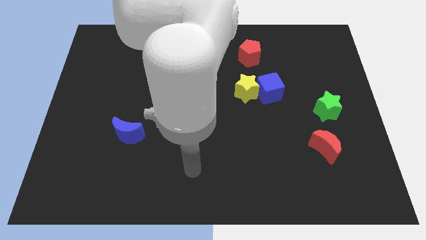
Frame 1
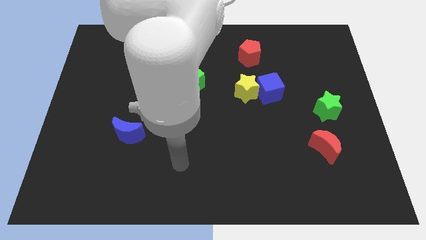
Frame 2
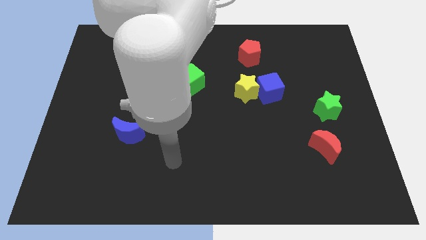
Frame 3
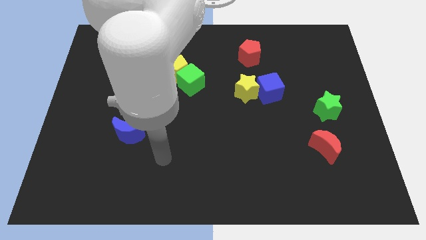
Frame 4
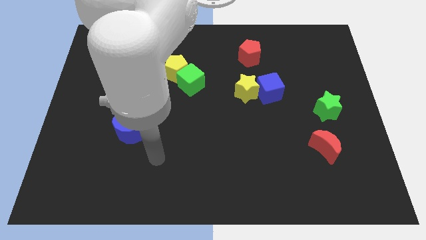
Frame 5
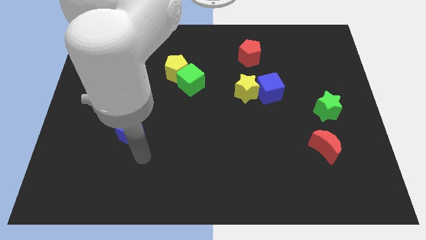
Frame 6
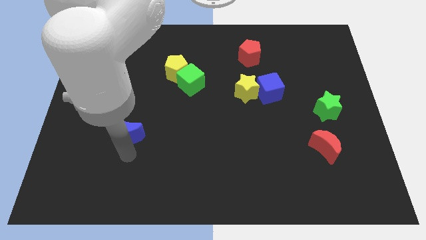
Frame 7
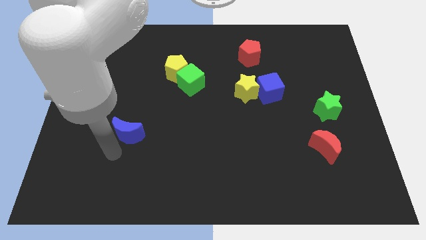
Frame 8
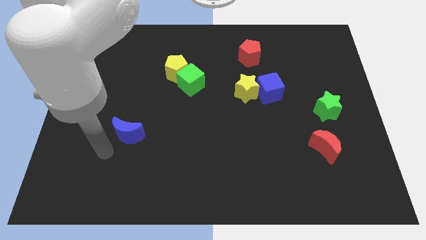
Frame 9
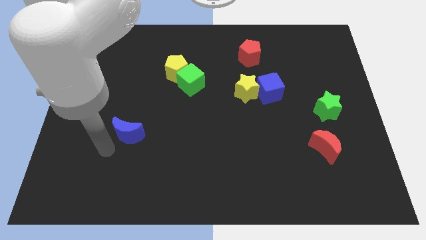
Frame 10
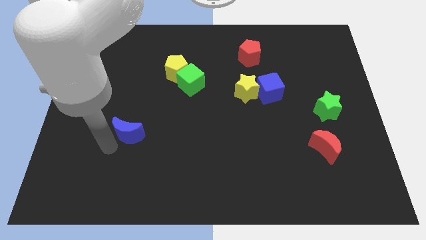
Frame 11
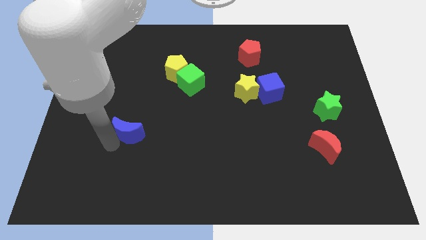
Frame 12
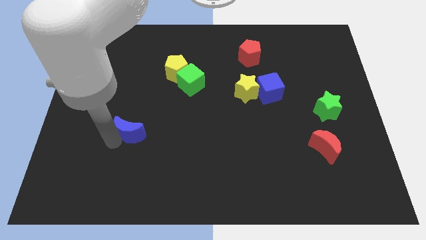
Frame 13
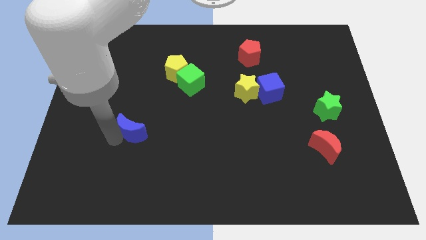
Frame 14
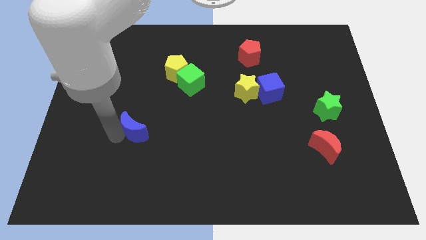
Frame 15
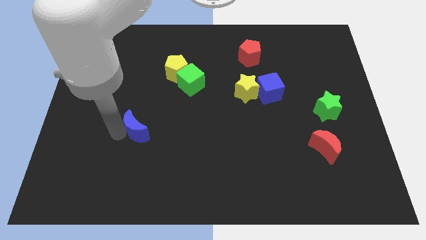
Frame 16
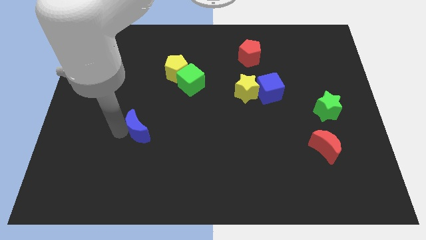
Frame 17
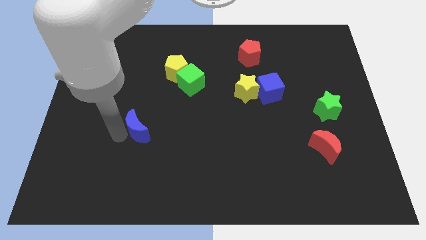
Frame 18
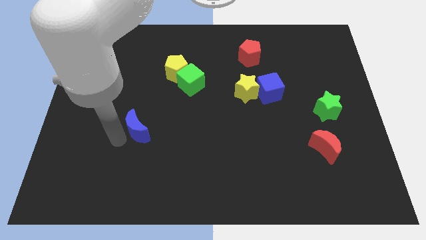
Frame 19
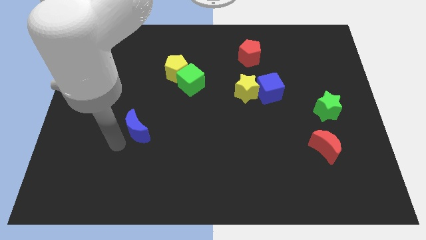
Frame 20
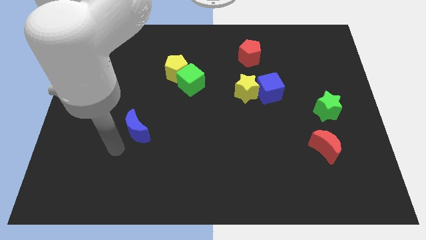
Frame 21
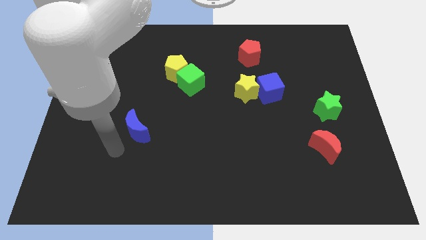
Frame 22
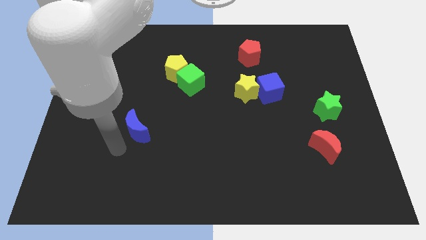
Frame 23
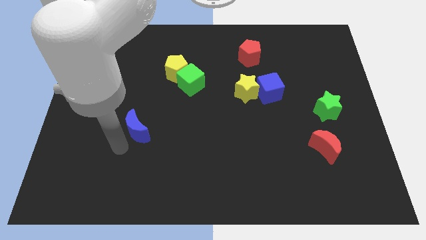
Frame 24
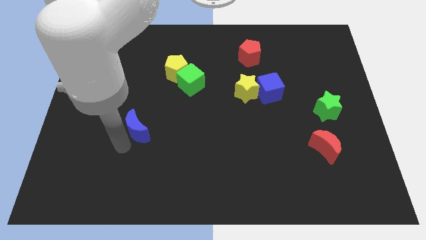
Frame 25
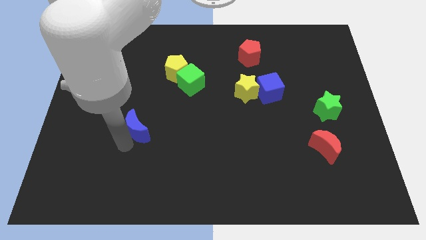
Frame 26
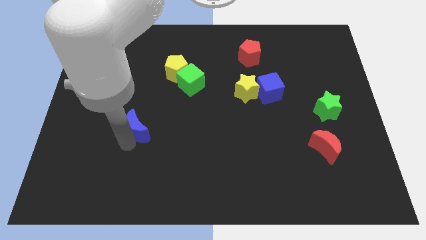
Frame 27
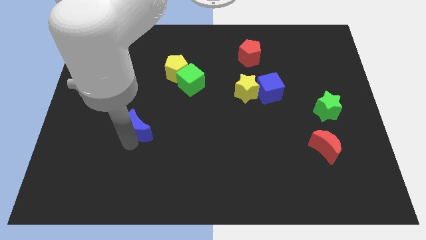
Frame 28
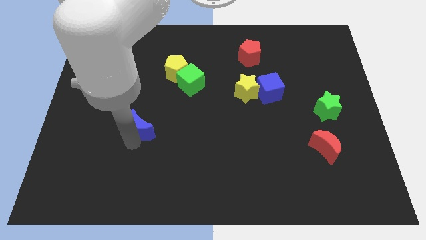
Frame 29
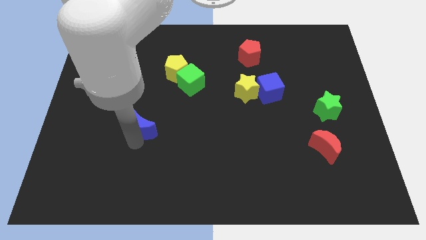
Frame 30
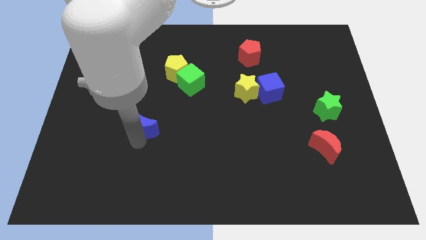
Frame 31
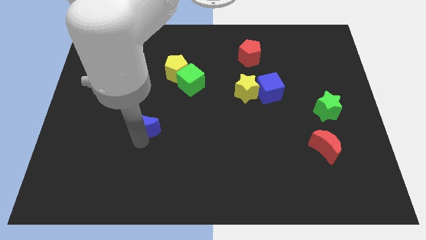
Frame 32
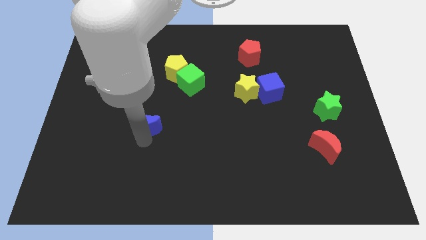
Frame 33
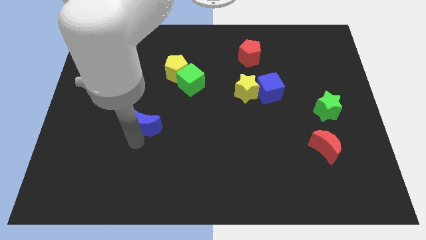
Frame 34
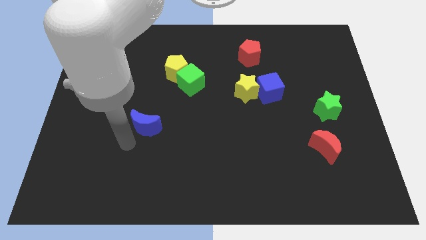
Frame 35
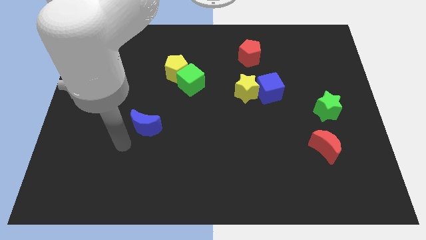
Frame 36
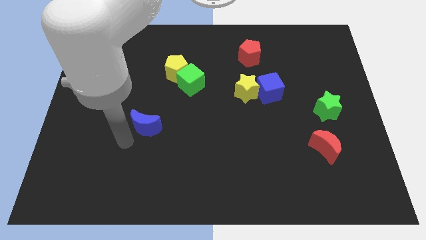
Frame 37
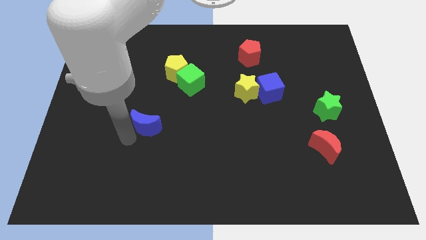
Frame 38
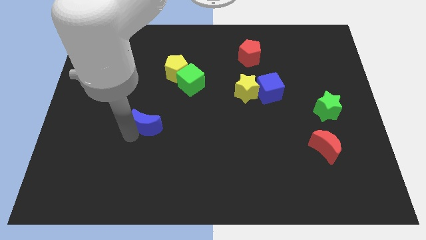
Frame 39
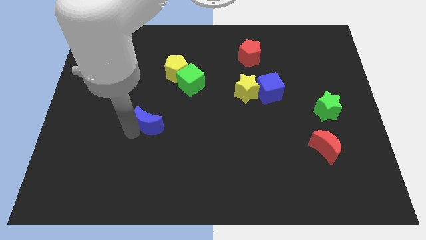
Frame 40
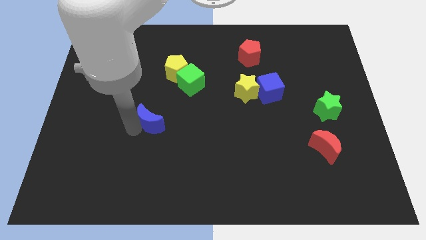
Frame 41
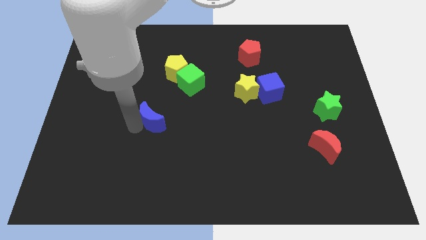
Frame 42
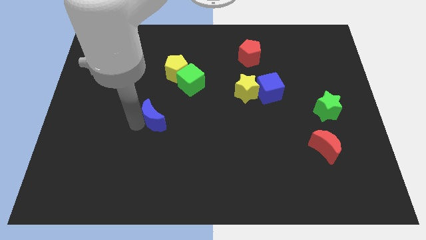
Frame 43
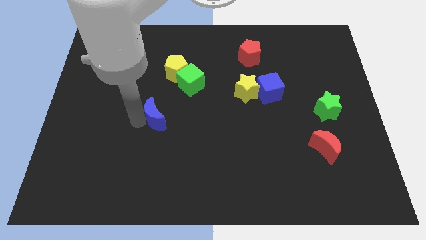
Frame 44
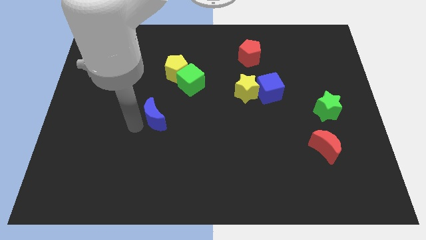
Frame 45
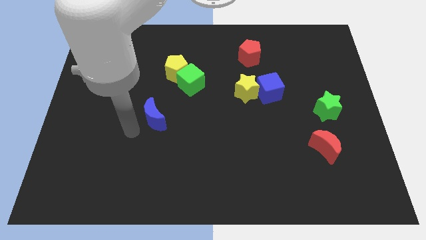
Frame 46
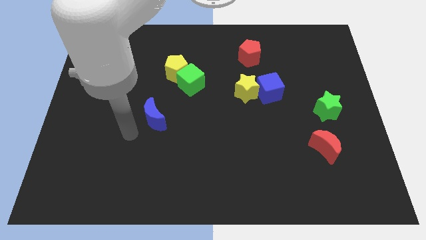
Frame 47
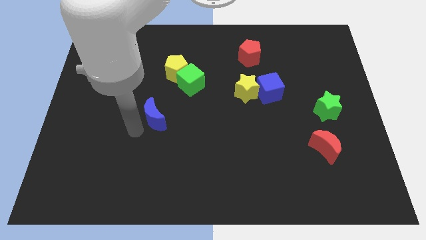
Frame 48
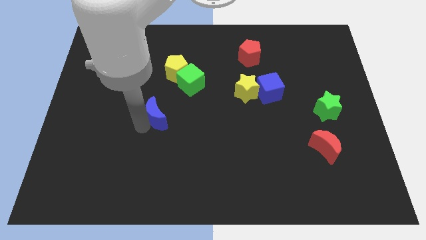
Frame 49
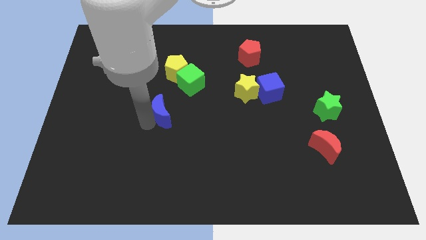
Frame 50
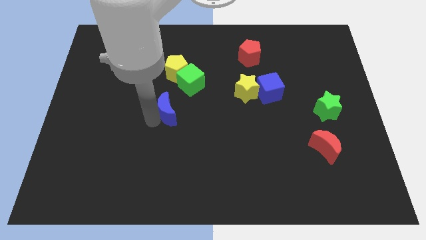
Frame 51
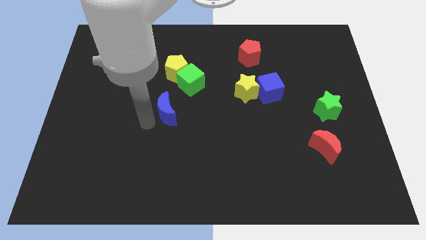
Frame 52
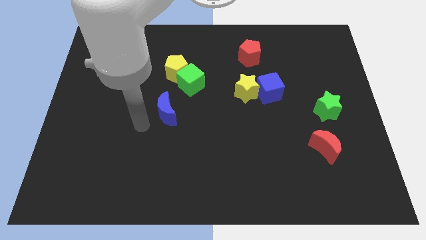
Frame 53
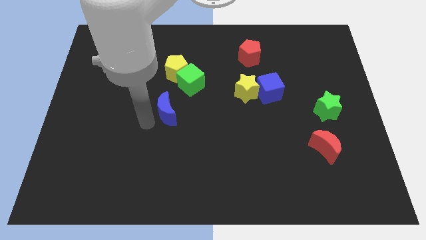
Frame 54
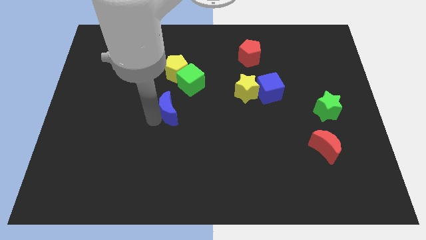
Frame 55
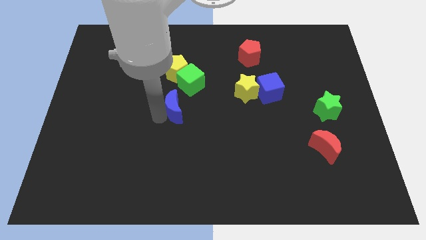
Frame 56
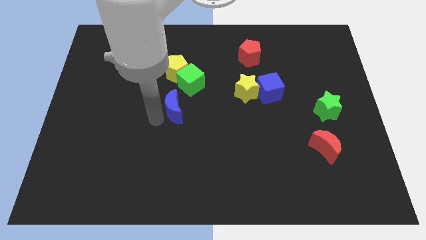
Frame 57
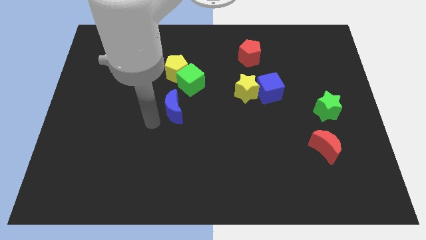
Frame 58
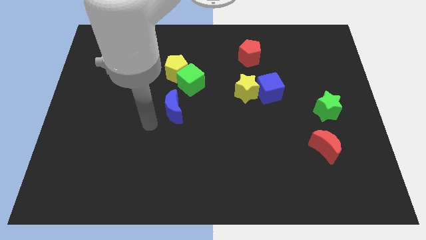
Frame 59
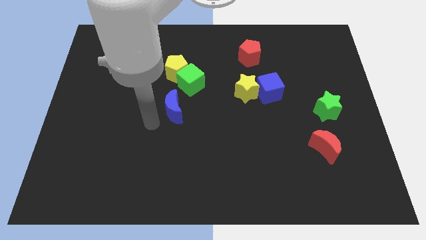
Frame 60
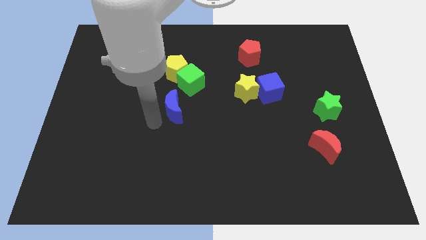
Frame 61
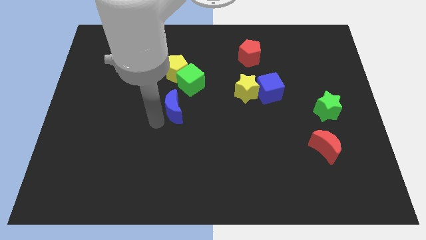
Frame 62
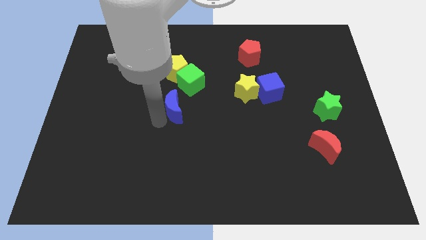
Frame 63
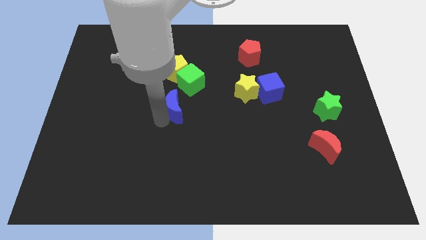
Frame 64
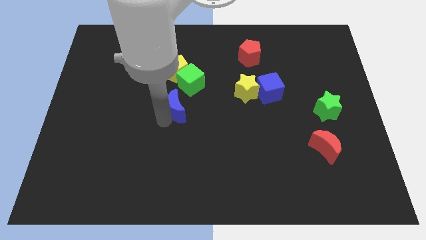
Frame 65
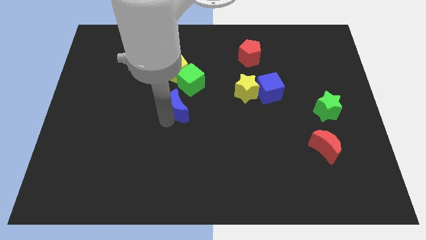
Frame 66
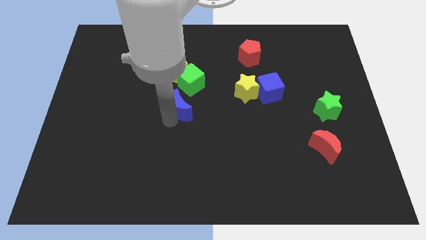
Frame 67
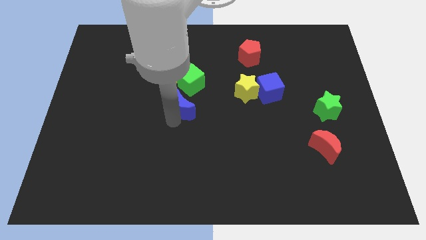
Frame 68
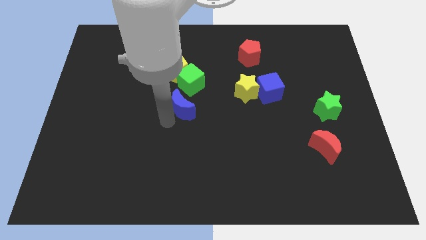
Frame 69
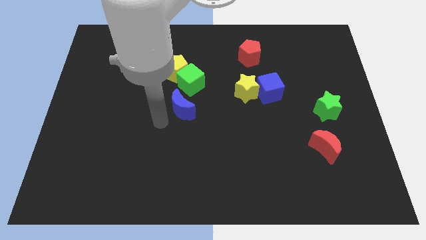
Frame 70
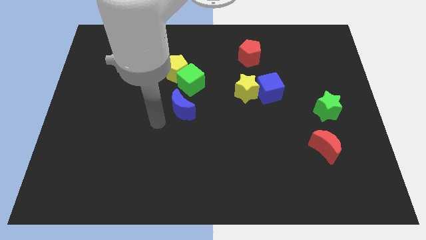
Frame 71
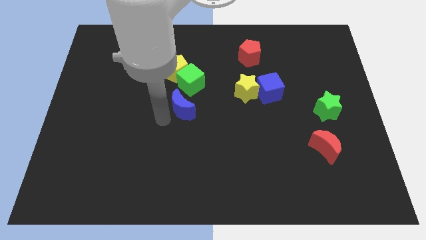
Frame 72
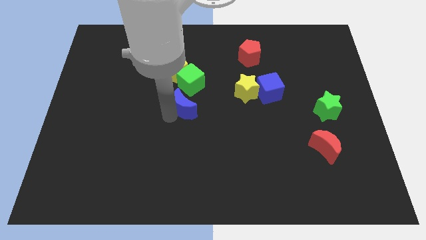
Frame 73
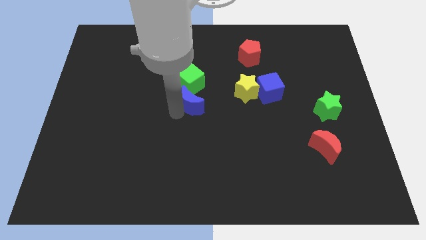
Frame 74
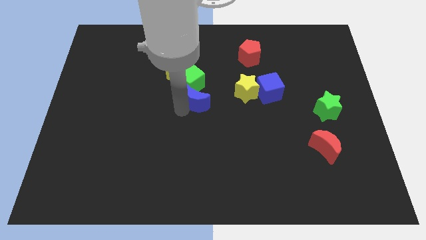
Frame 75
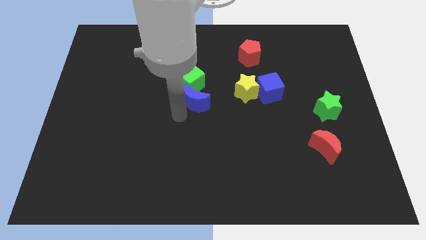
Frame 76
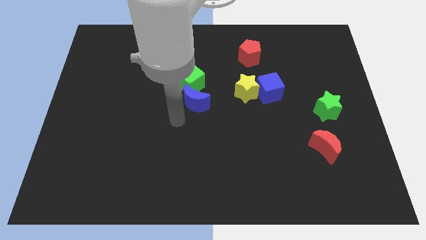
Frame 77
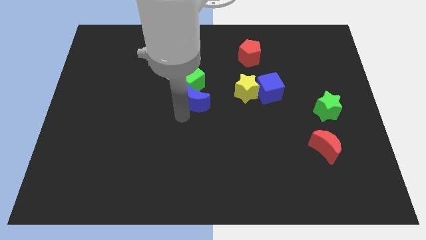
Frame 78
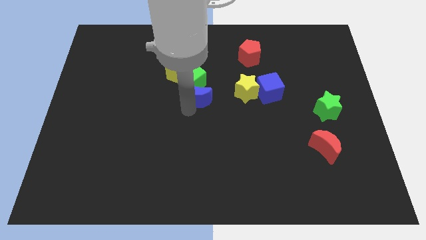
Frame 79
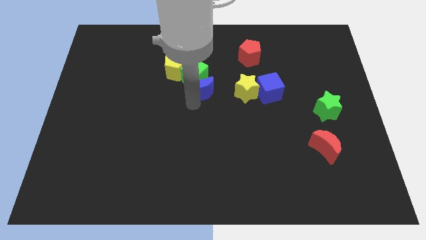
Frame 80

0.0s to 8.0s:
push the blue moon upwards and then right
